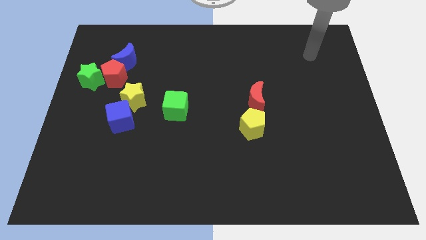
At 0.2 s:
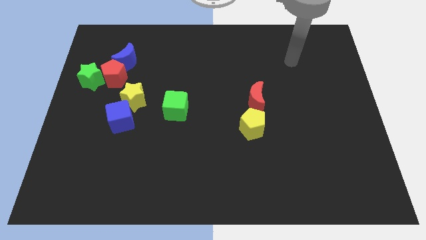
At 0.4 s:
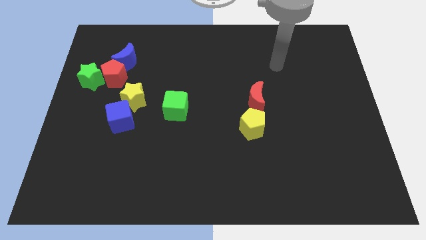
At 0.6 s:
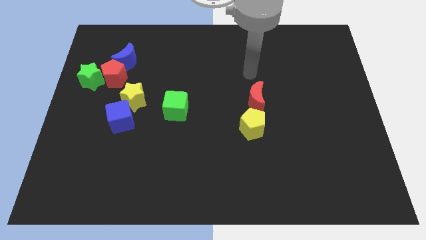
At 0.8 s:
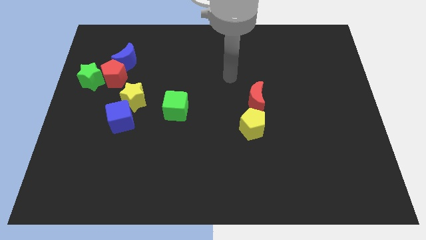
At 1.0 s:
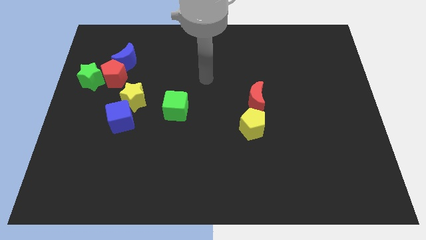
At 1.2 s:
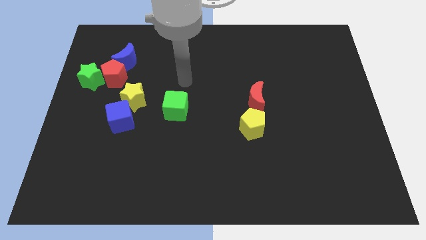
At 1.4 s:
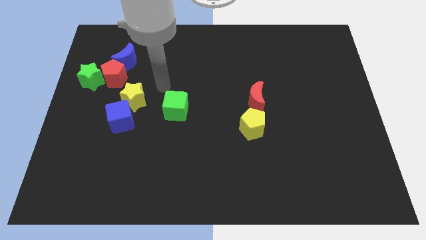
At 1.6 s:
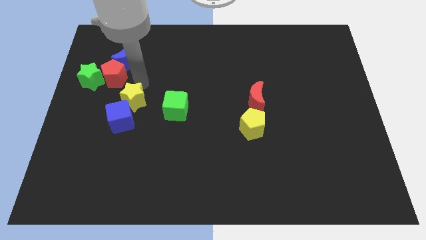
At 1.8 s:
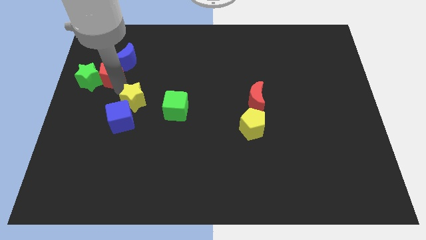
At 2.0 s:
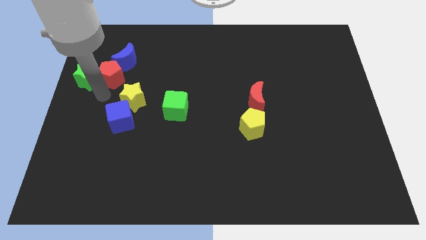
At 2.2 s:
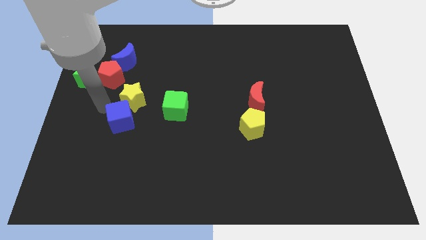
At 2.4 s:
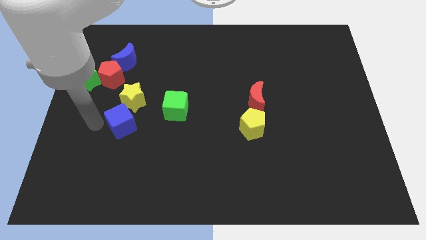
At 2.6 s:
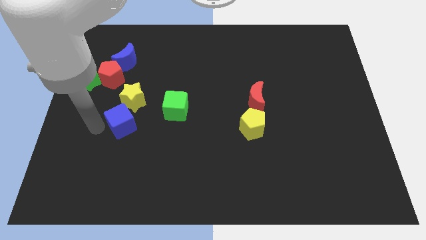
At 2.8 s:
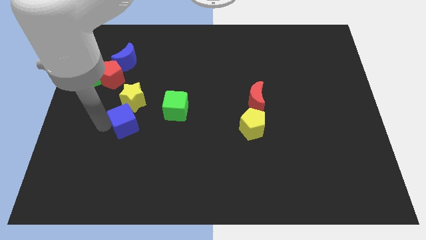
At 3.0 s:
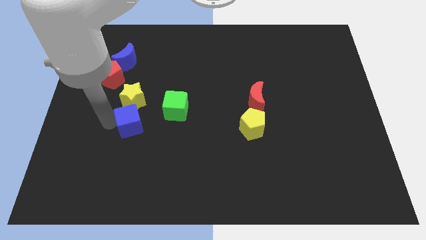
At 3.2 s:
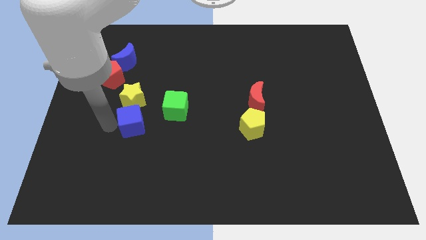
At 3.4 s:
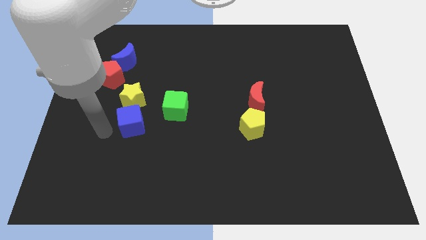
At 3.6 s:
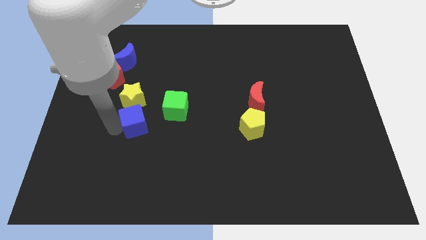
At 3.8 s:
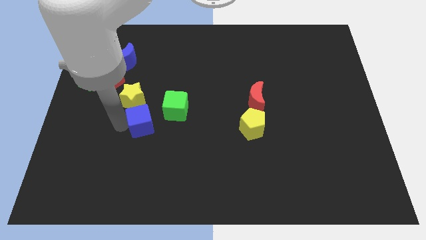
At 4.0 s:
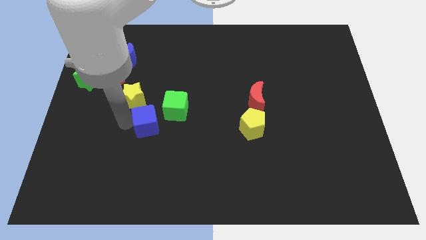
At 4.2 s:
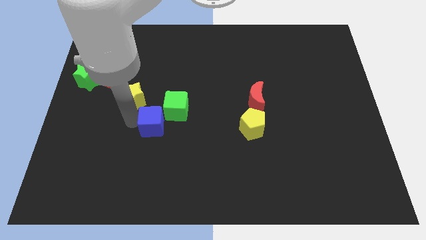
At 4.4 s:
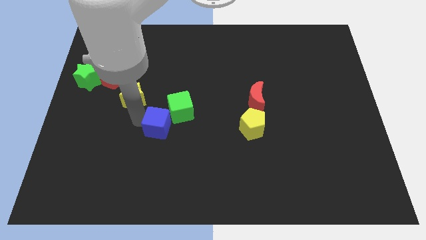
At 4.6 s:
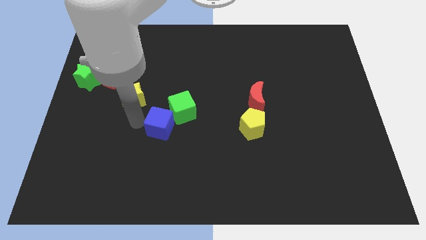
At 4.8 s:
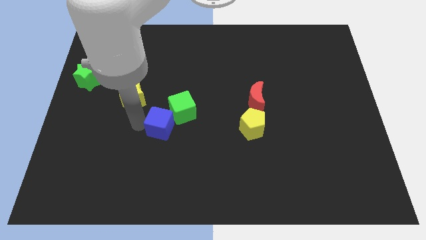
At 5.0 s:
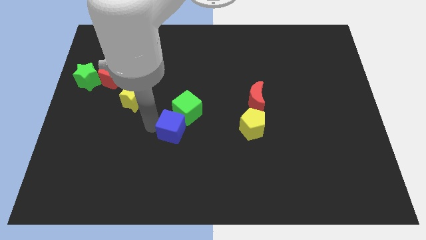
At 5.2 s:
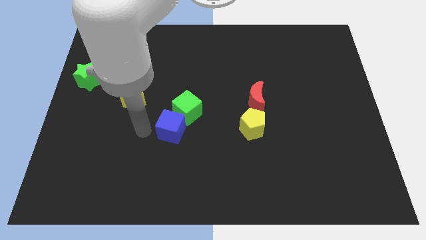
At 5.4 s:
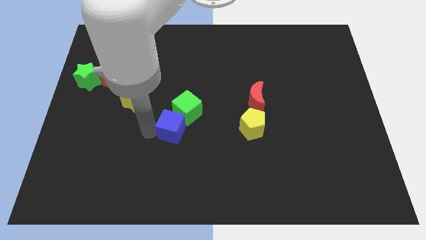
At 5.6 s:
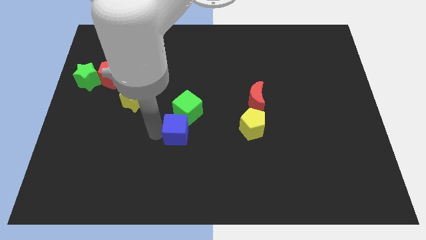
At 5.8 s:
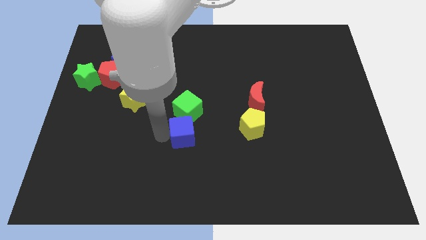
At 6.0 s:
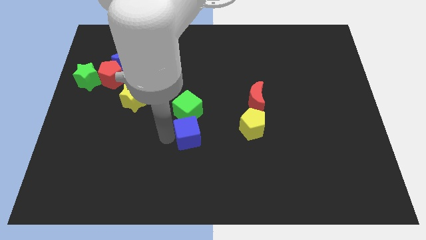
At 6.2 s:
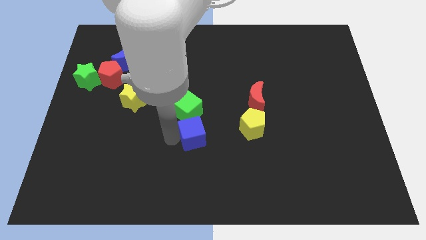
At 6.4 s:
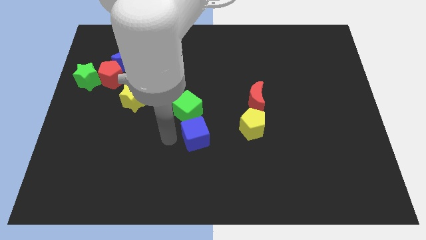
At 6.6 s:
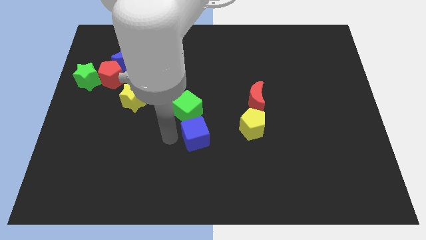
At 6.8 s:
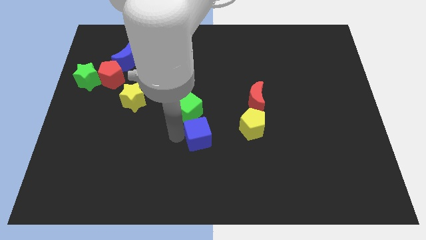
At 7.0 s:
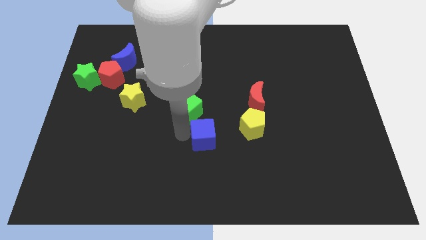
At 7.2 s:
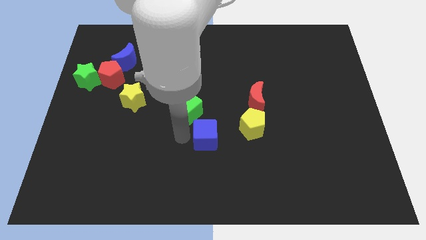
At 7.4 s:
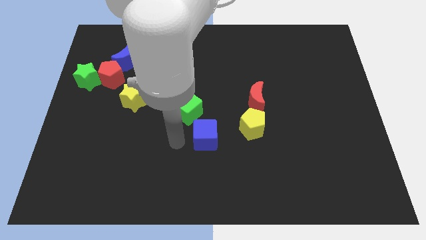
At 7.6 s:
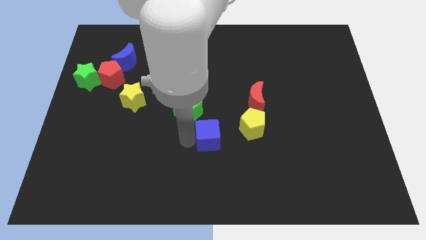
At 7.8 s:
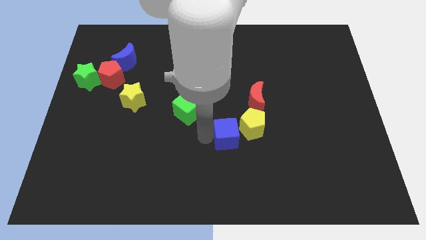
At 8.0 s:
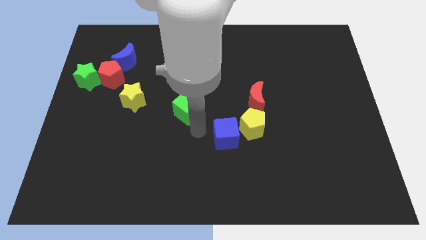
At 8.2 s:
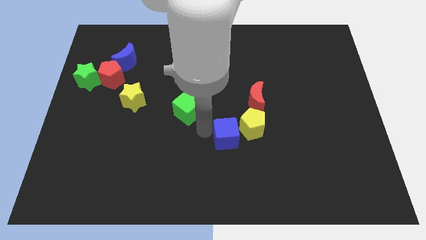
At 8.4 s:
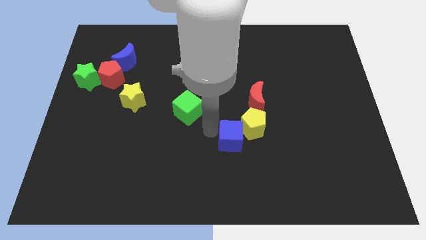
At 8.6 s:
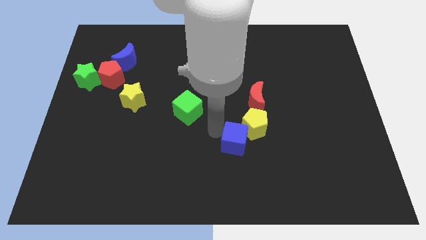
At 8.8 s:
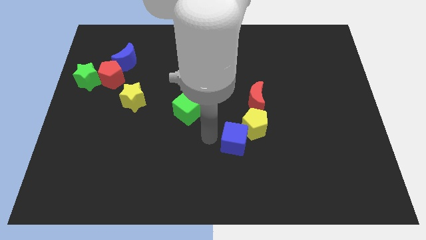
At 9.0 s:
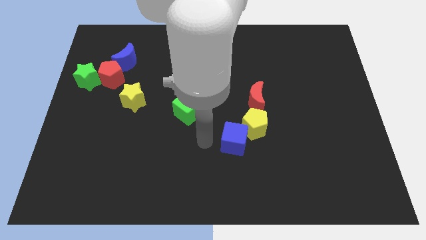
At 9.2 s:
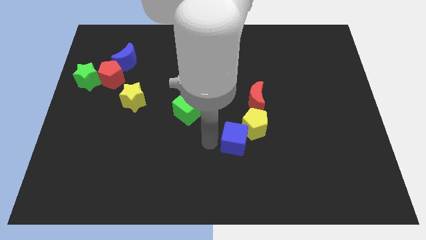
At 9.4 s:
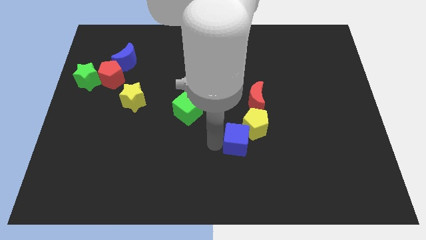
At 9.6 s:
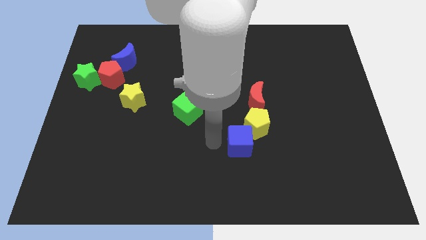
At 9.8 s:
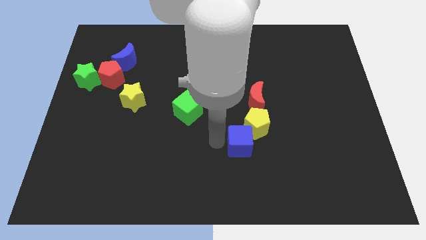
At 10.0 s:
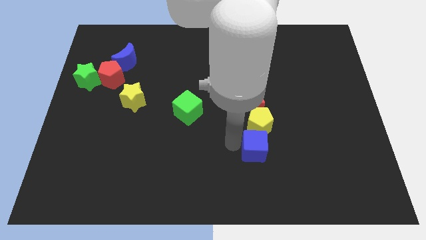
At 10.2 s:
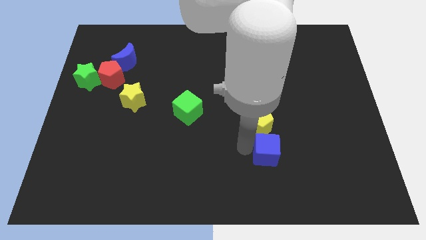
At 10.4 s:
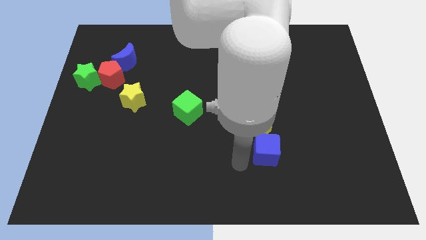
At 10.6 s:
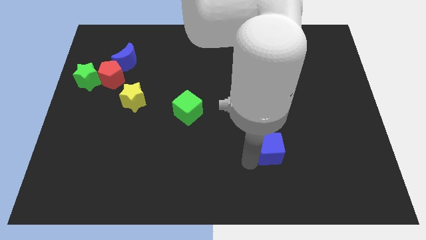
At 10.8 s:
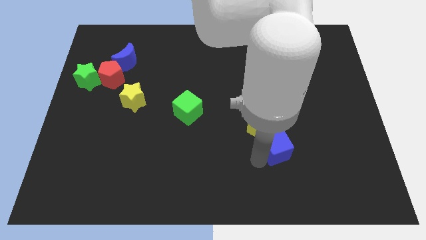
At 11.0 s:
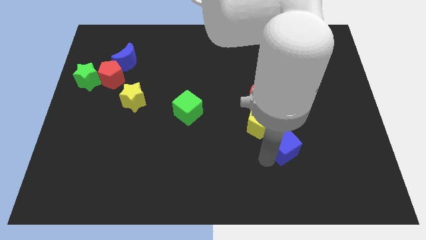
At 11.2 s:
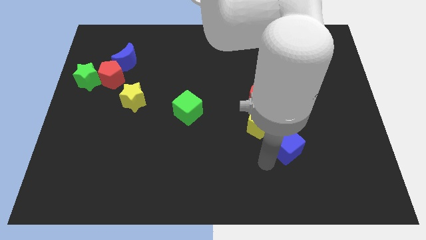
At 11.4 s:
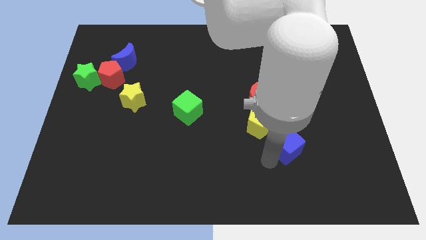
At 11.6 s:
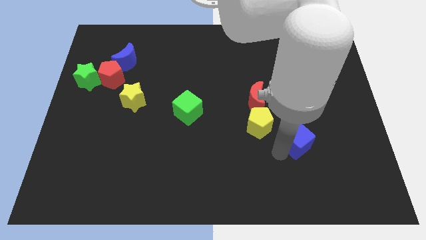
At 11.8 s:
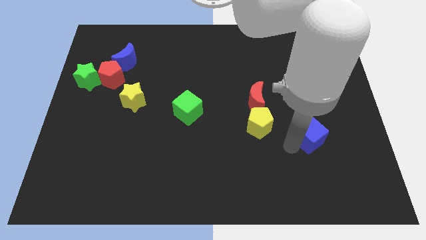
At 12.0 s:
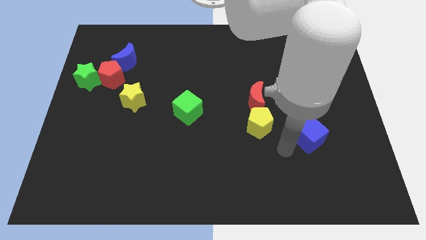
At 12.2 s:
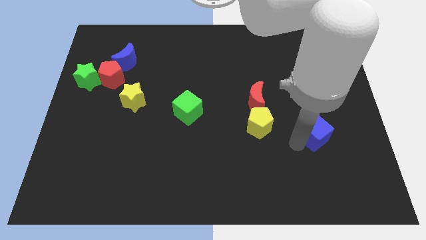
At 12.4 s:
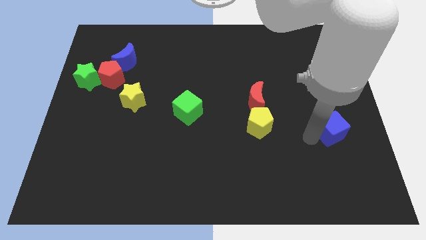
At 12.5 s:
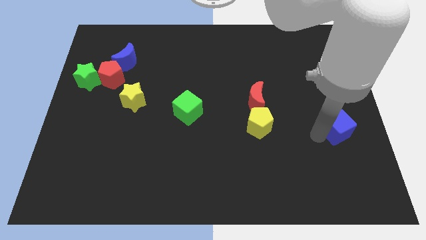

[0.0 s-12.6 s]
put the blue cube to the right side of the board
